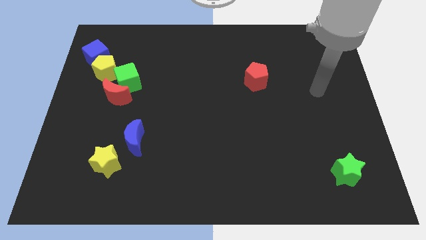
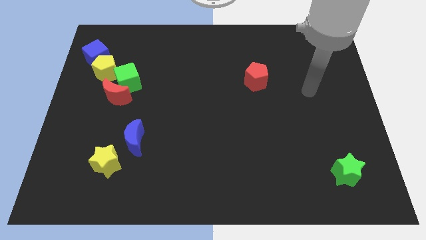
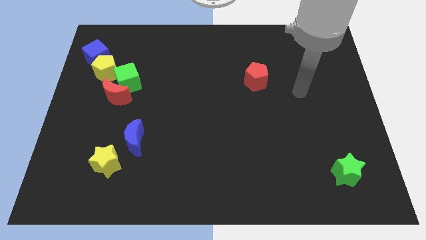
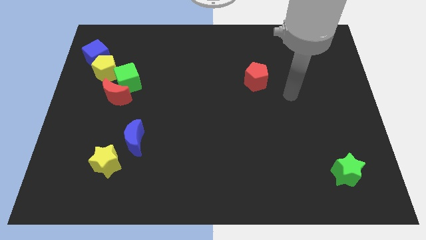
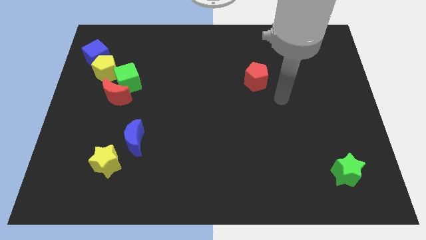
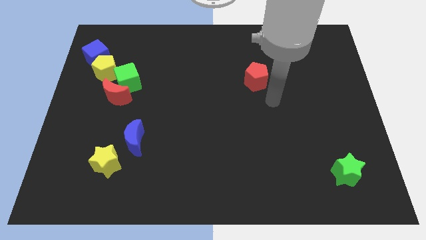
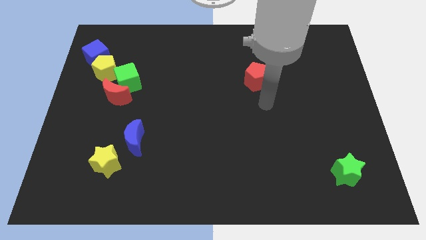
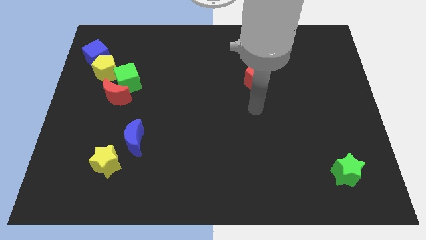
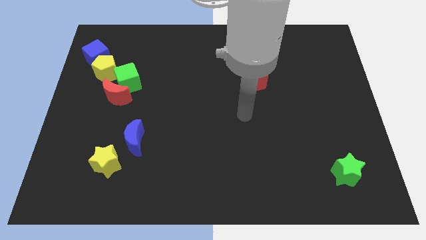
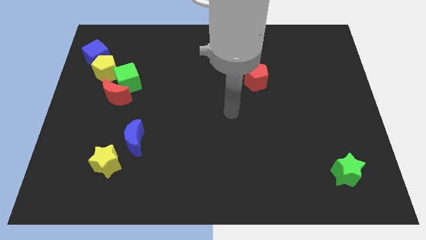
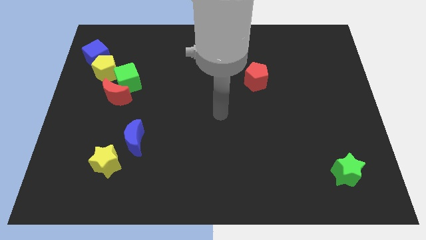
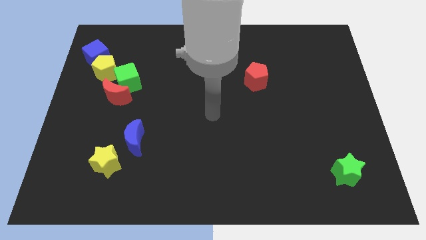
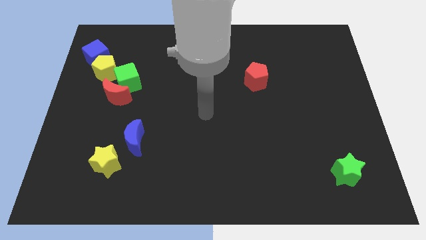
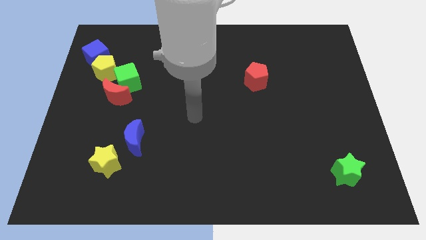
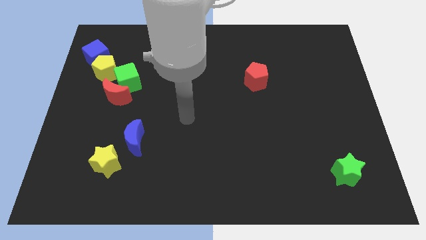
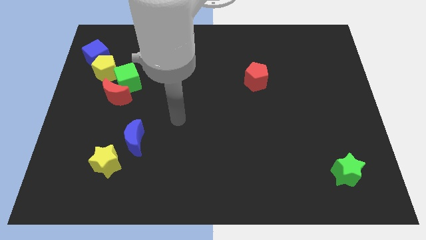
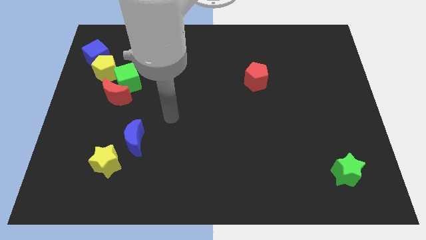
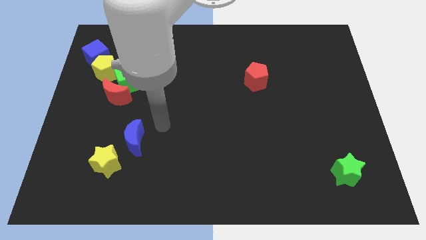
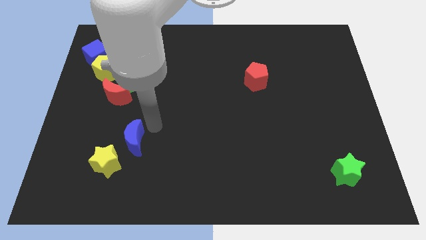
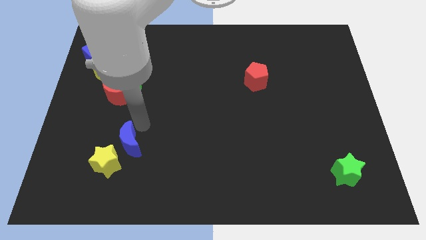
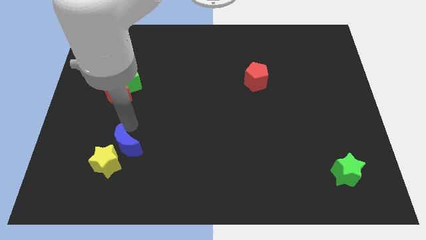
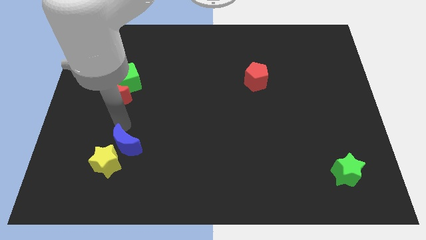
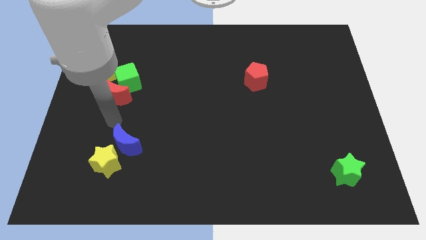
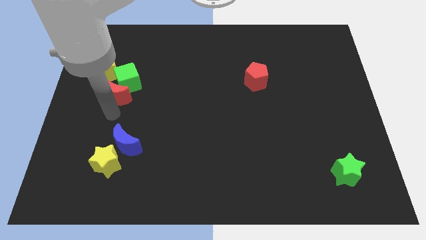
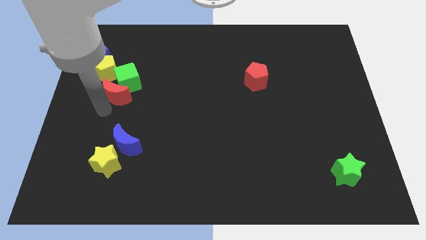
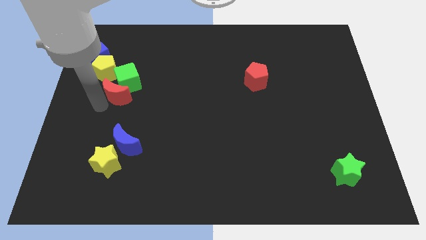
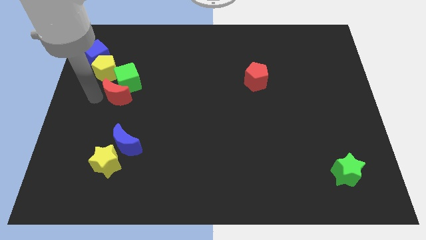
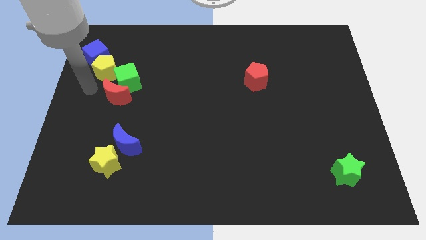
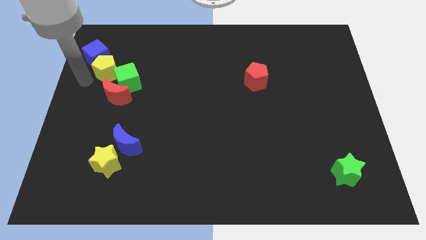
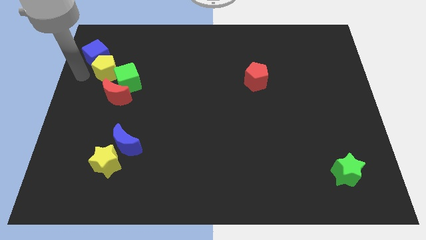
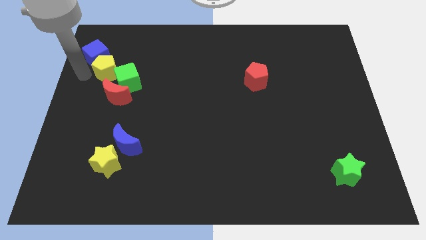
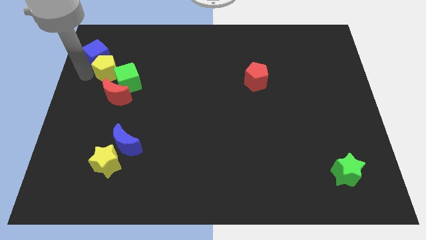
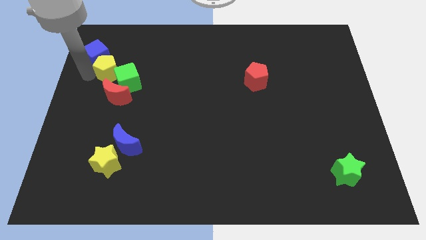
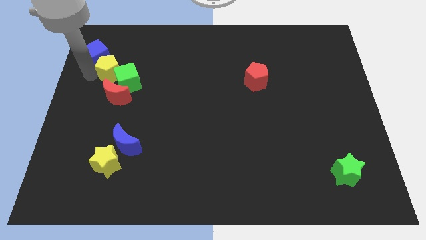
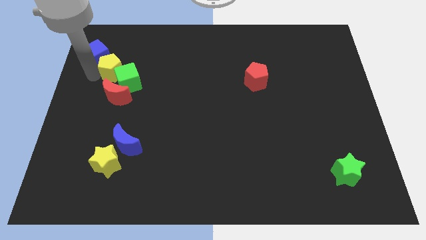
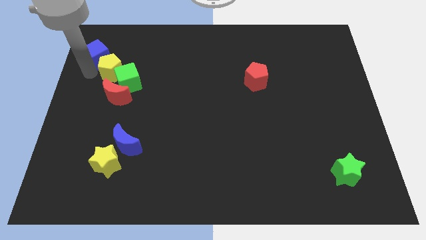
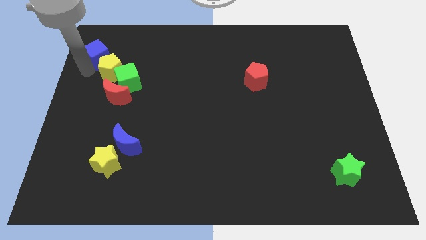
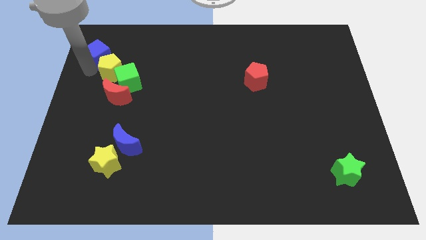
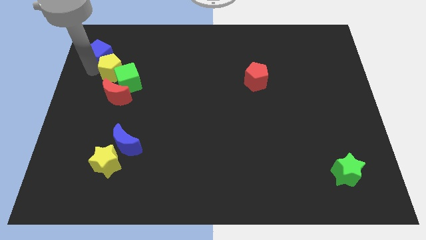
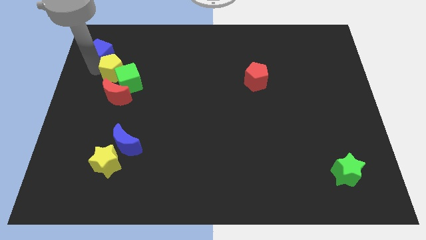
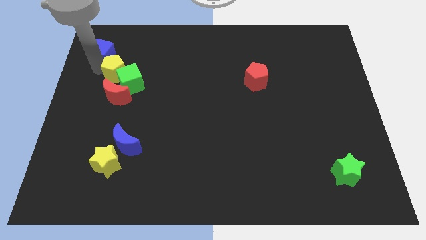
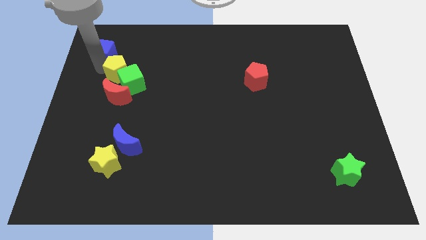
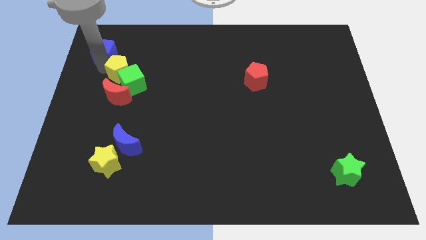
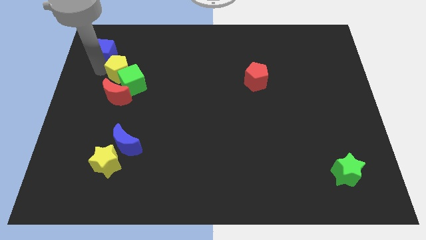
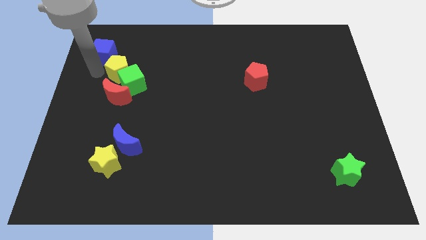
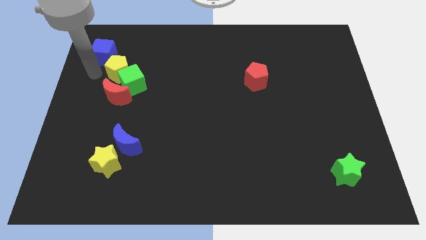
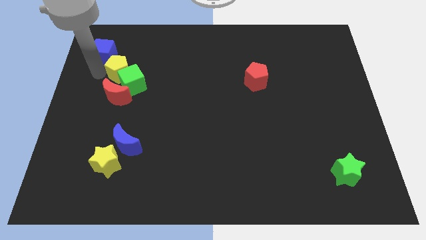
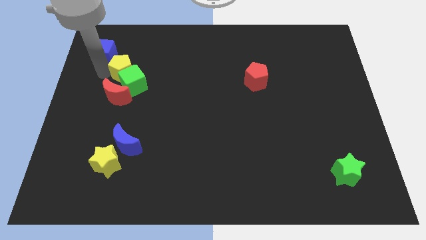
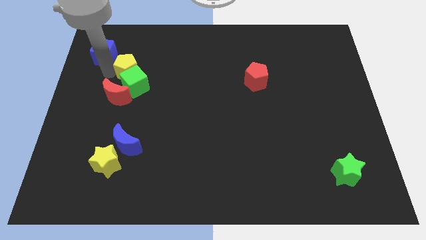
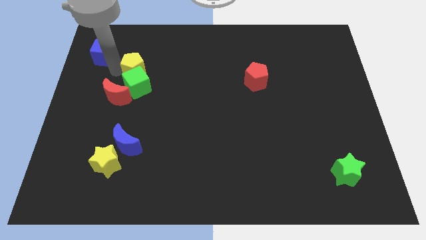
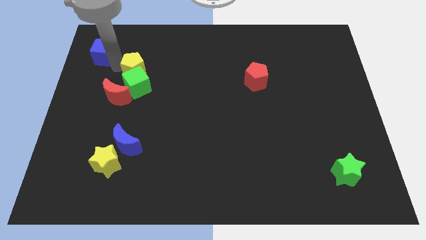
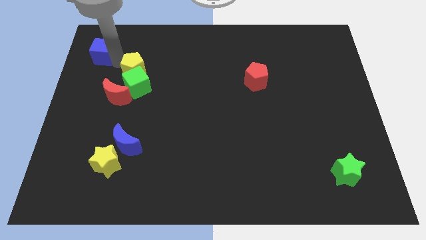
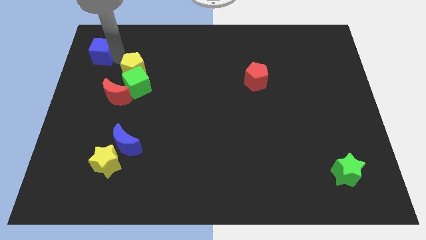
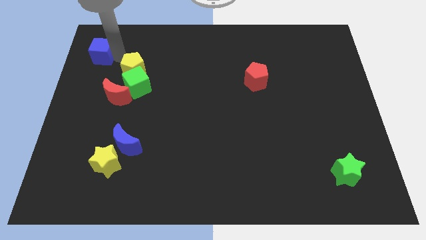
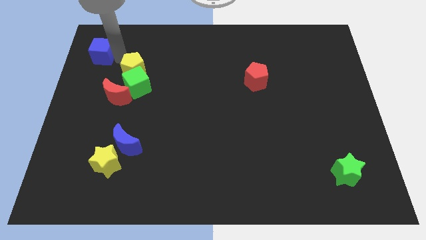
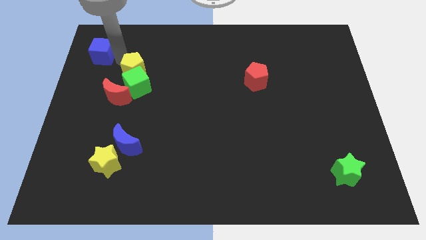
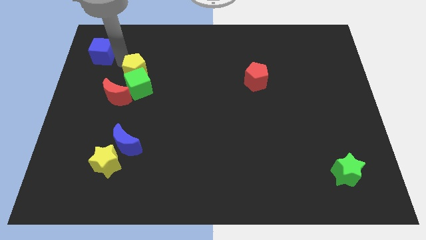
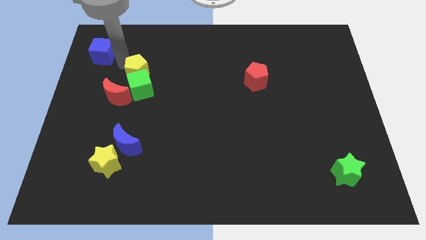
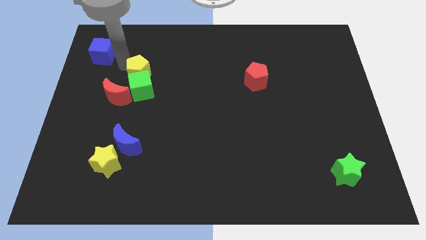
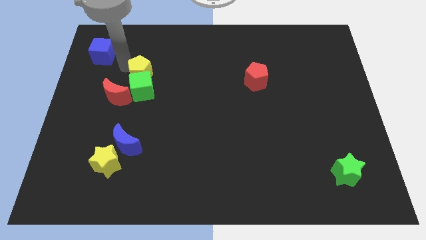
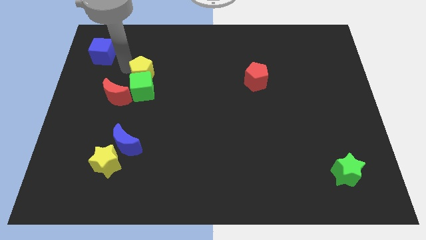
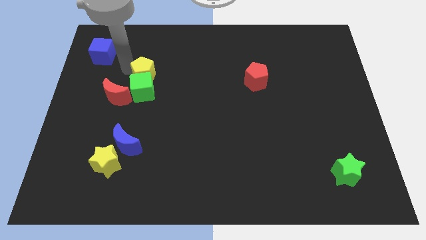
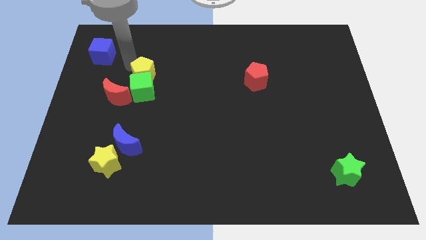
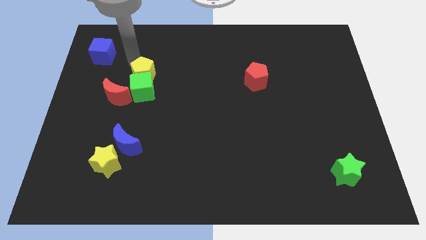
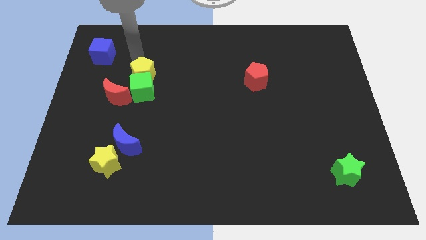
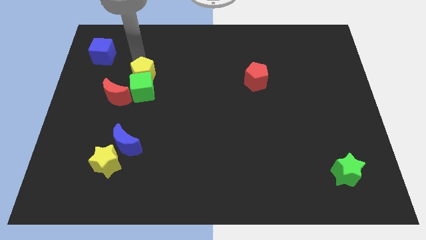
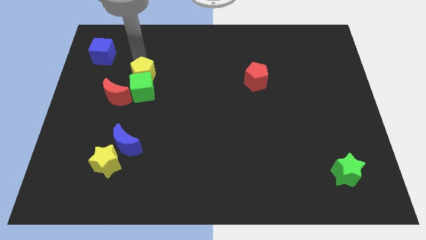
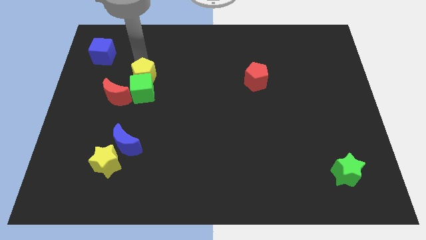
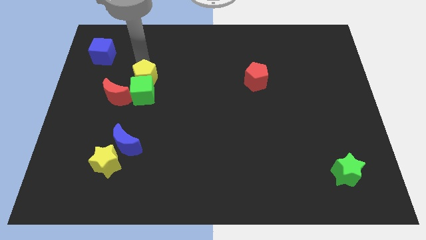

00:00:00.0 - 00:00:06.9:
slightly move the yellow pentagon down and right

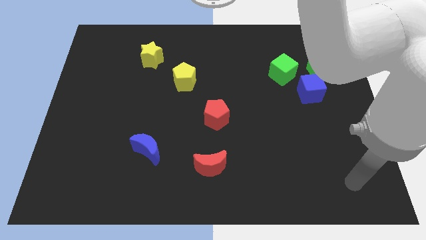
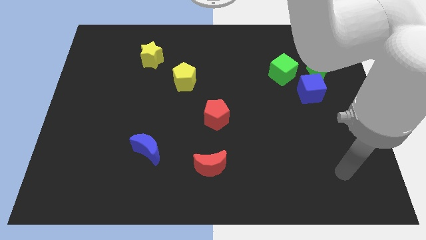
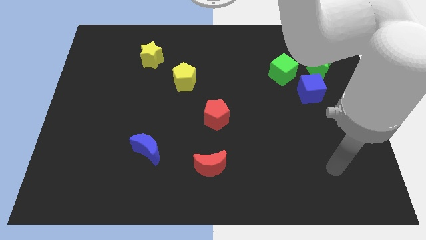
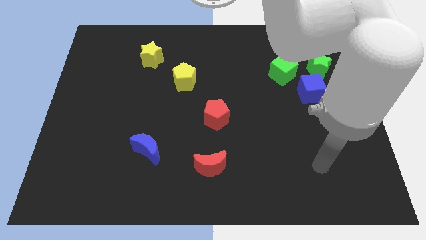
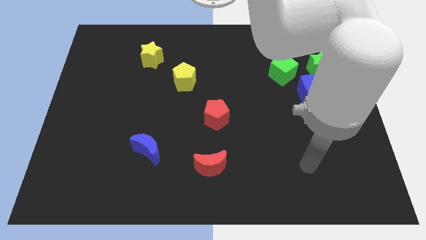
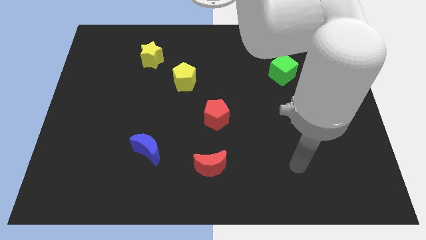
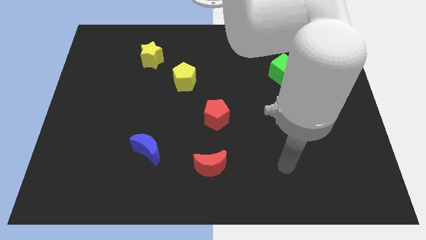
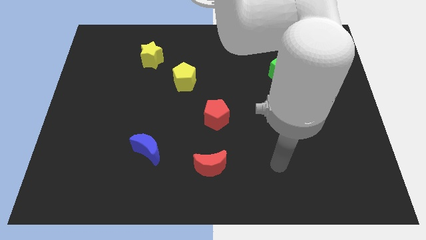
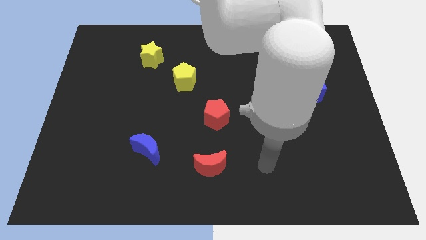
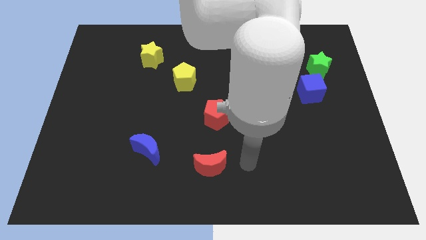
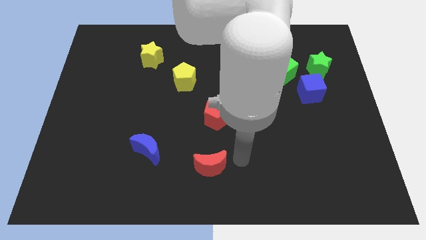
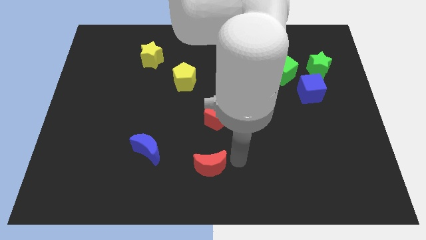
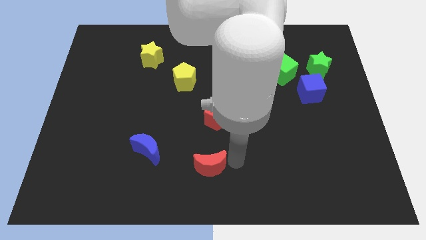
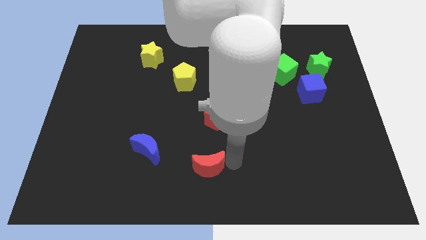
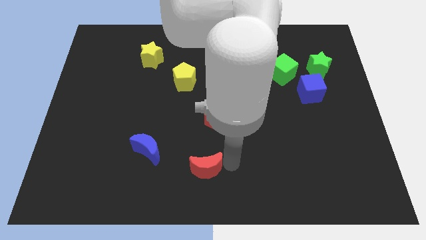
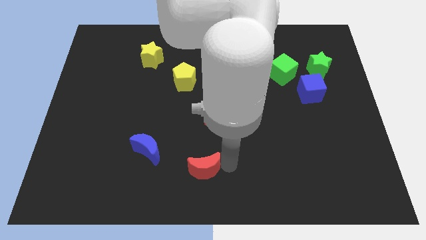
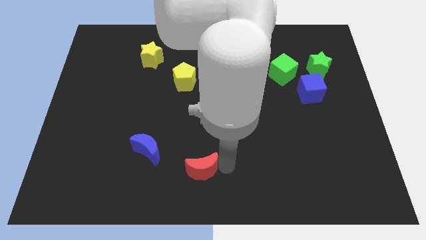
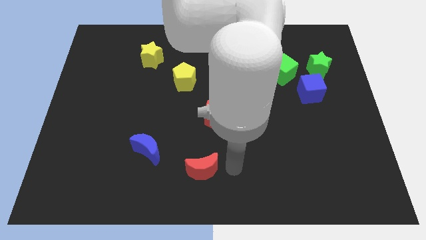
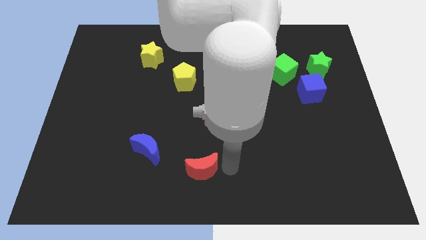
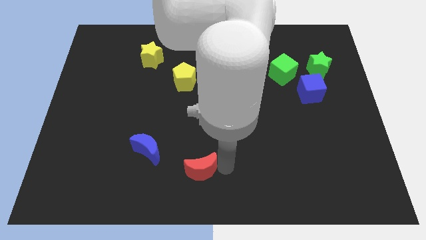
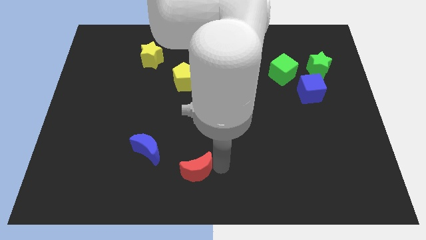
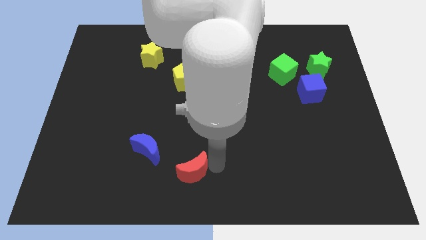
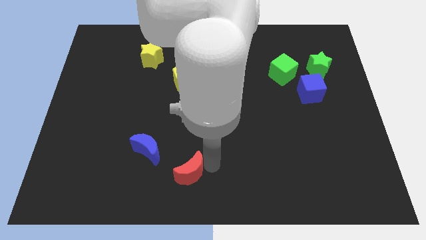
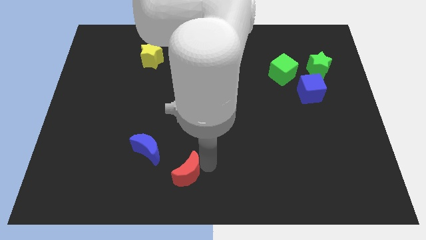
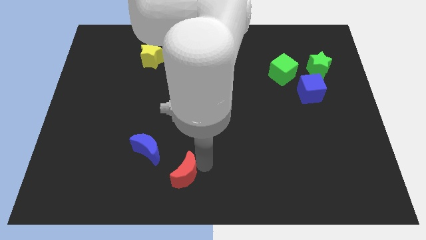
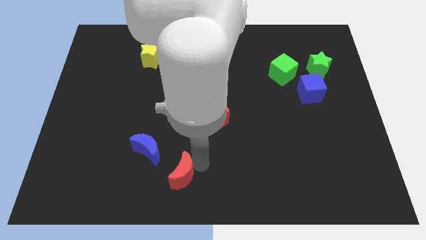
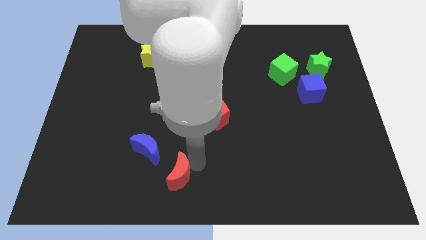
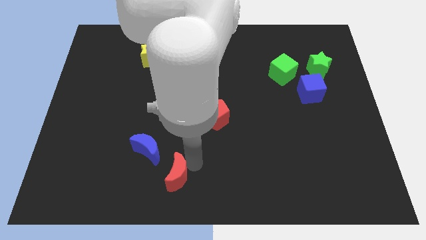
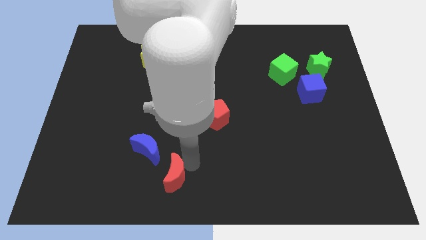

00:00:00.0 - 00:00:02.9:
move the red moon a little to the left
